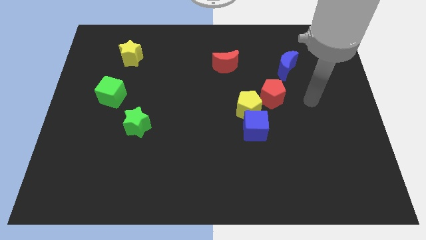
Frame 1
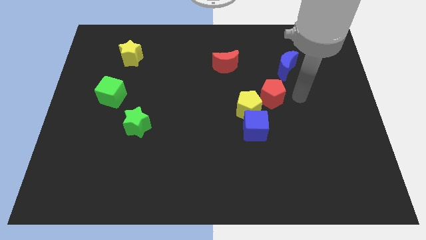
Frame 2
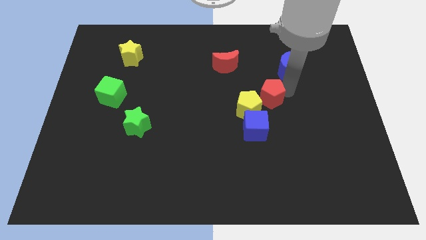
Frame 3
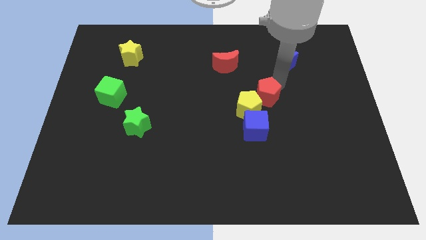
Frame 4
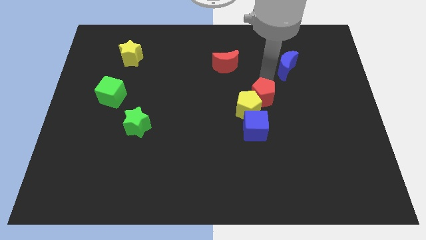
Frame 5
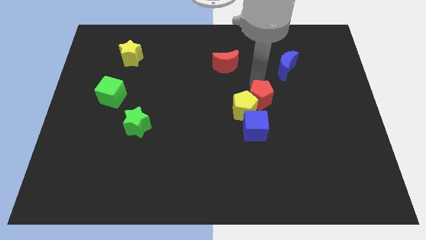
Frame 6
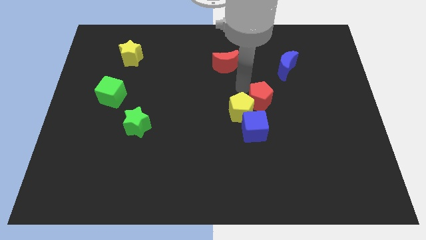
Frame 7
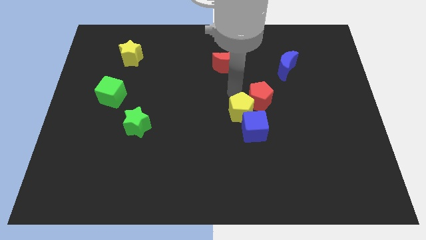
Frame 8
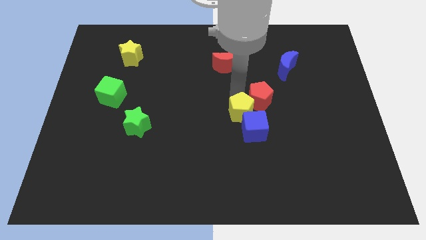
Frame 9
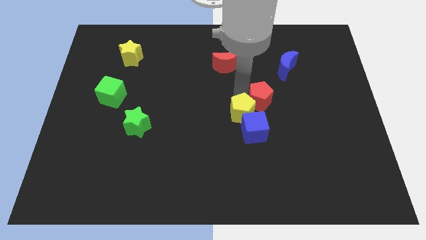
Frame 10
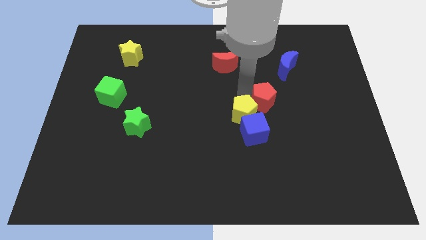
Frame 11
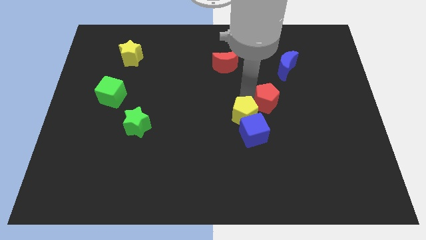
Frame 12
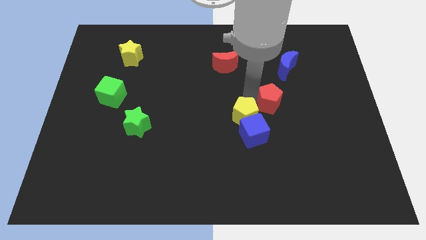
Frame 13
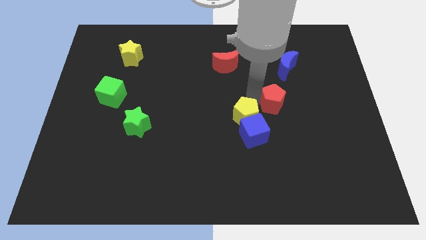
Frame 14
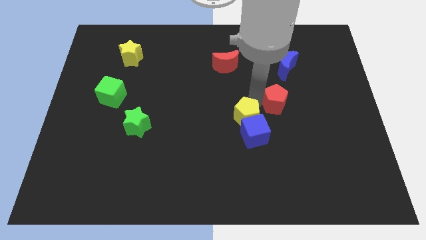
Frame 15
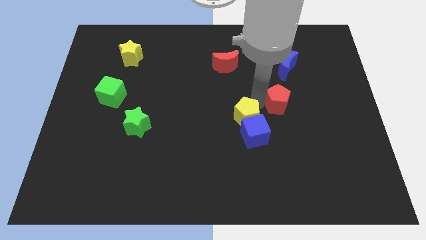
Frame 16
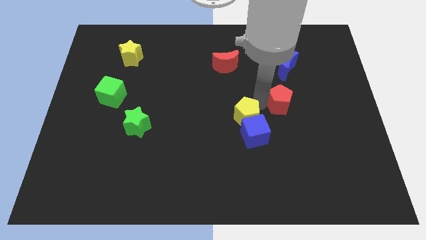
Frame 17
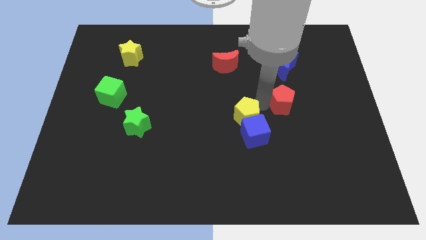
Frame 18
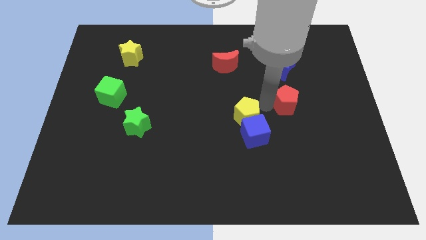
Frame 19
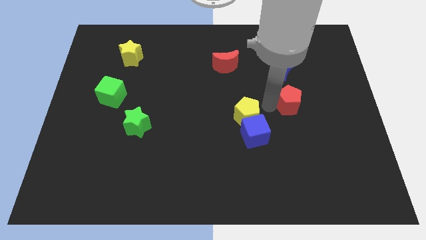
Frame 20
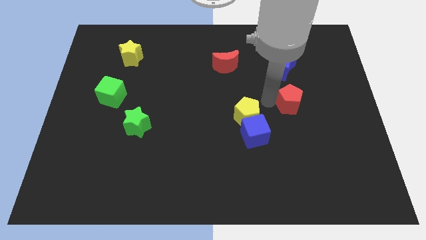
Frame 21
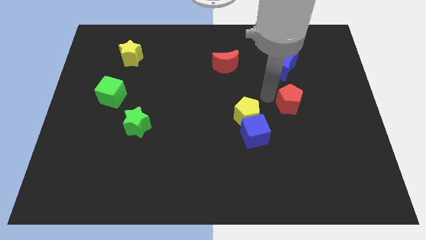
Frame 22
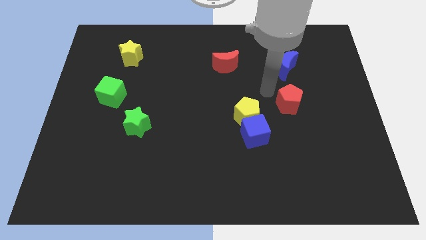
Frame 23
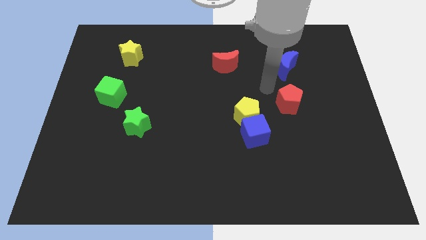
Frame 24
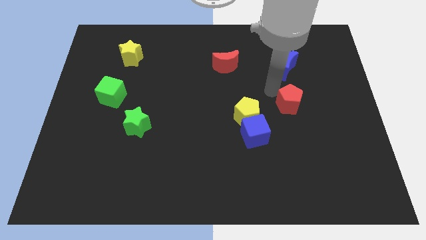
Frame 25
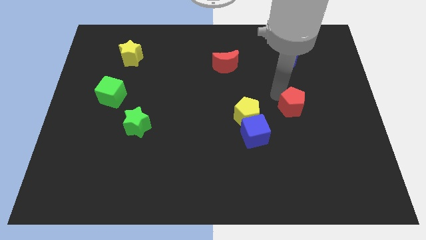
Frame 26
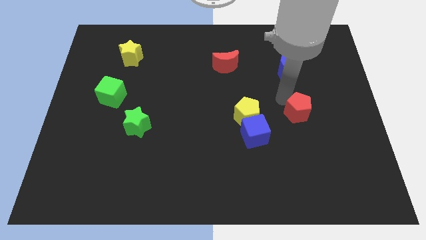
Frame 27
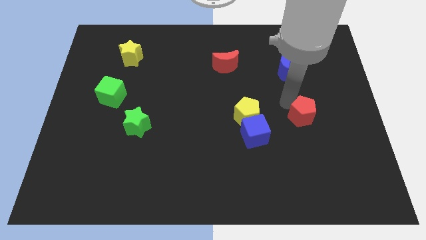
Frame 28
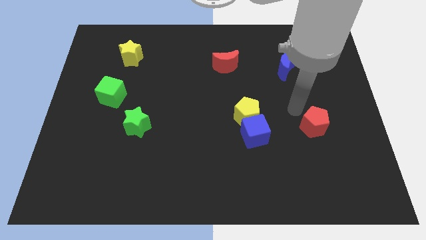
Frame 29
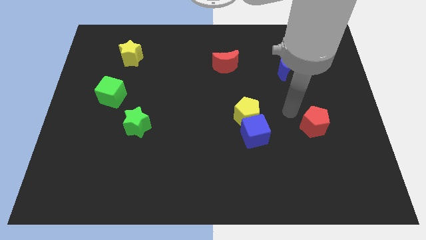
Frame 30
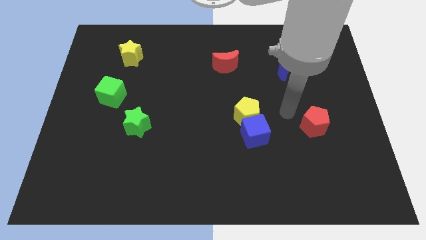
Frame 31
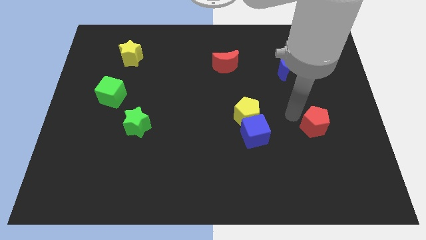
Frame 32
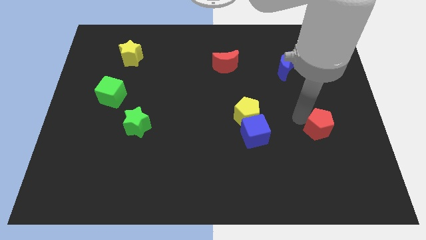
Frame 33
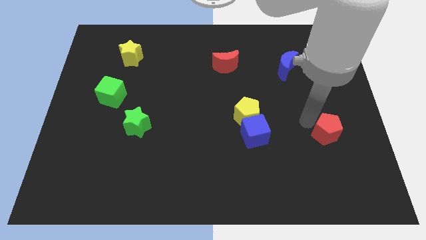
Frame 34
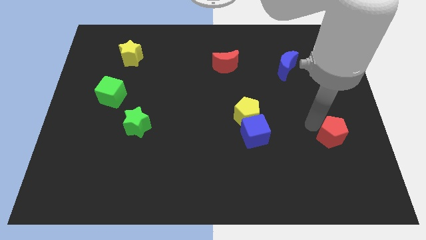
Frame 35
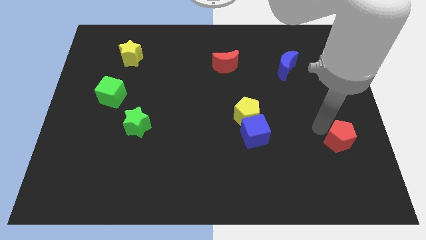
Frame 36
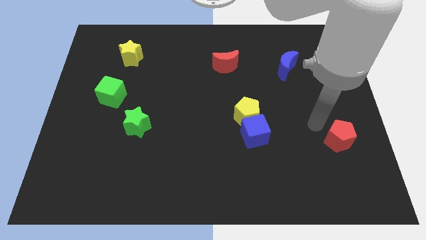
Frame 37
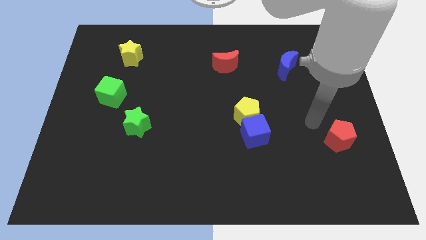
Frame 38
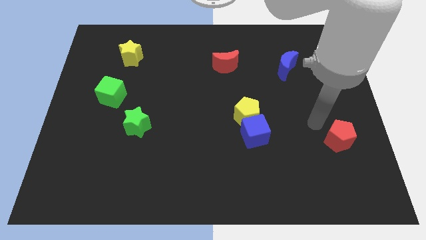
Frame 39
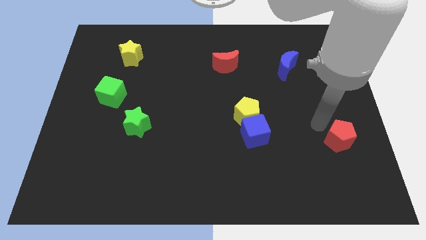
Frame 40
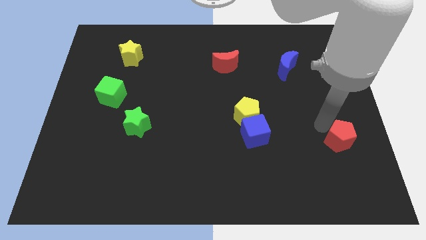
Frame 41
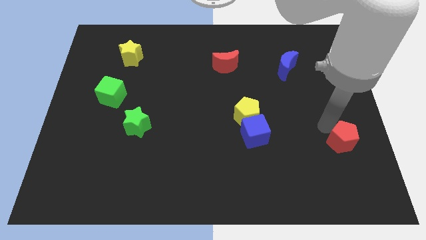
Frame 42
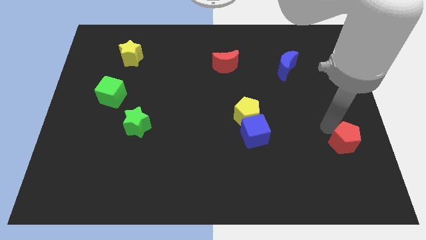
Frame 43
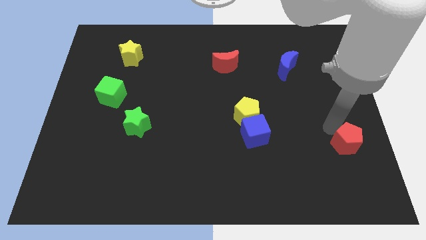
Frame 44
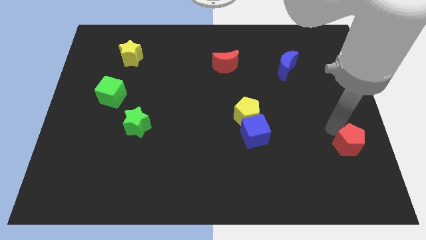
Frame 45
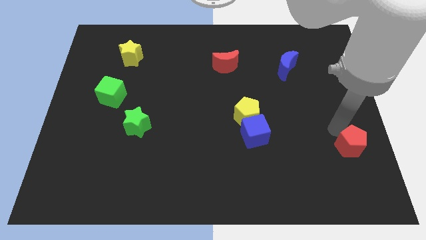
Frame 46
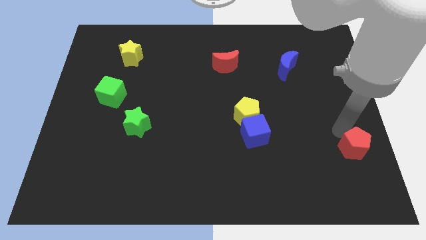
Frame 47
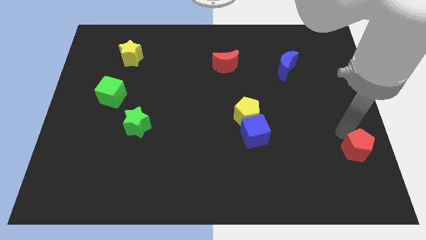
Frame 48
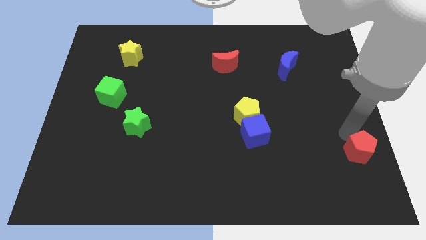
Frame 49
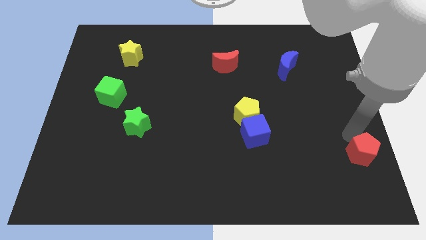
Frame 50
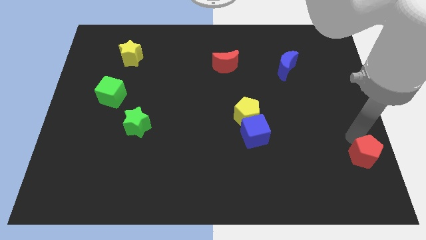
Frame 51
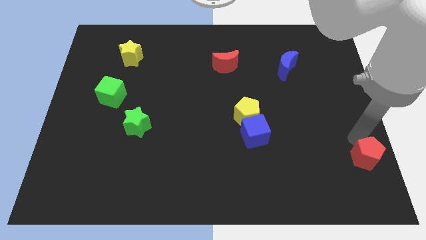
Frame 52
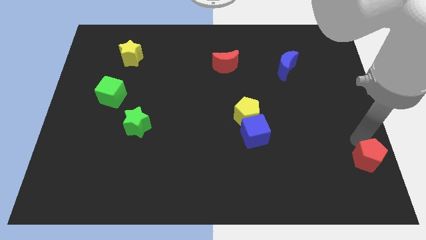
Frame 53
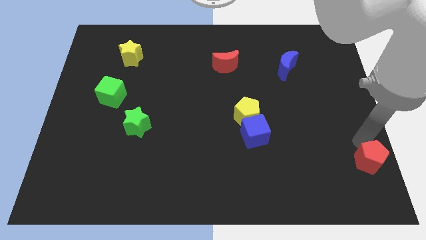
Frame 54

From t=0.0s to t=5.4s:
slide the red pentagon to the bottom right

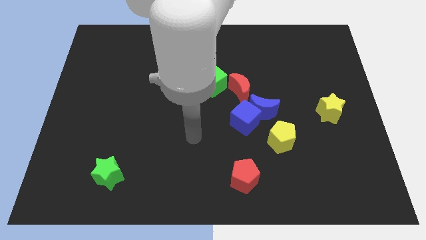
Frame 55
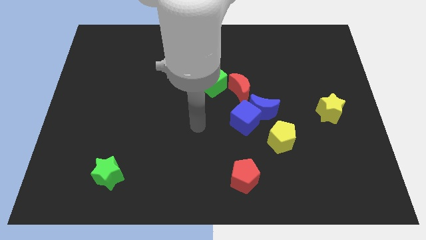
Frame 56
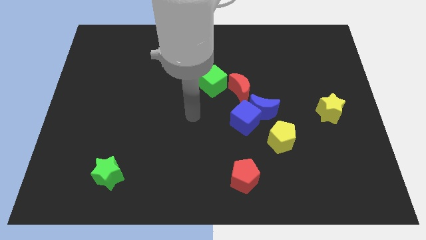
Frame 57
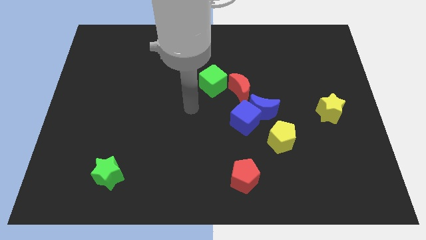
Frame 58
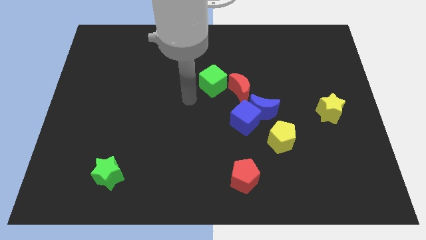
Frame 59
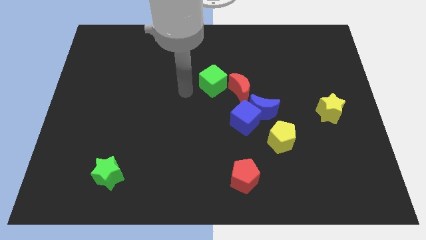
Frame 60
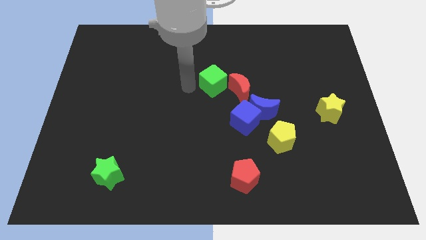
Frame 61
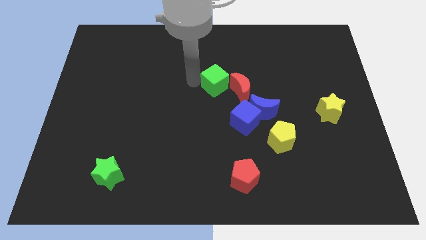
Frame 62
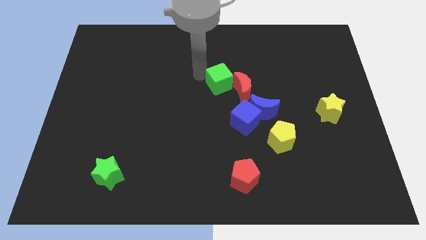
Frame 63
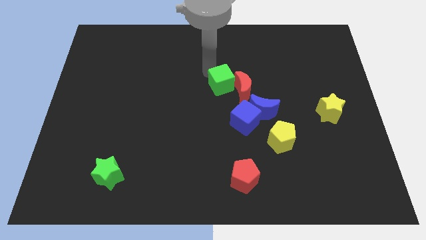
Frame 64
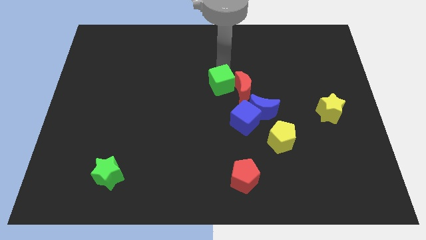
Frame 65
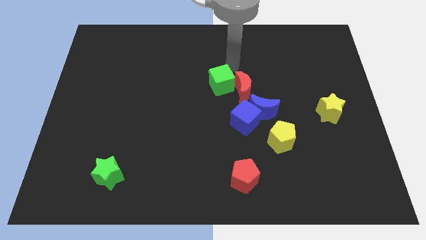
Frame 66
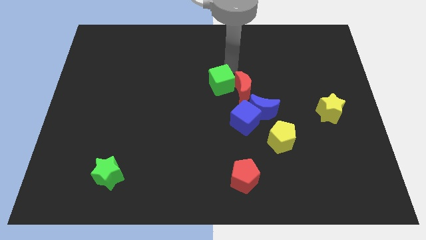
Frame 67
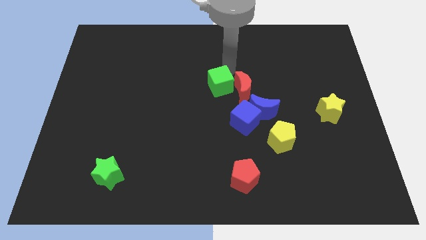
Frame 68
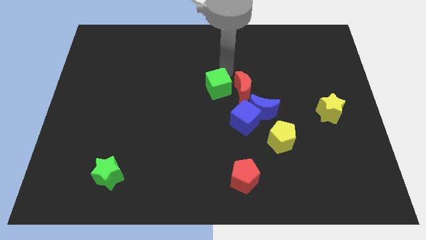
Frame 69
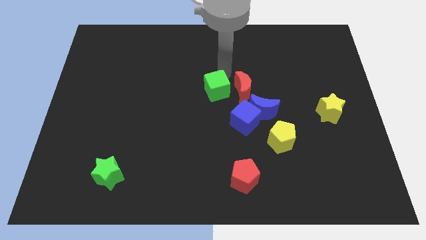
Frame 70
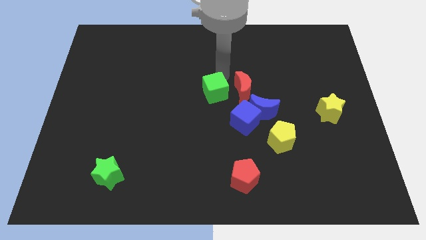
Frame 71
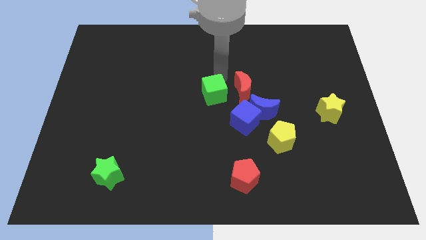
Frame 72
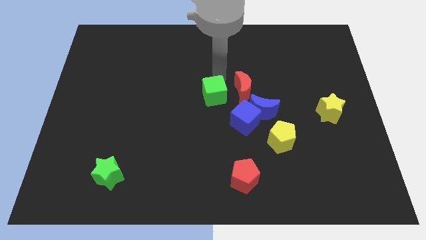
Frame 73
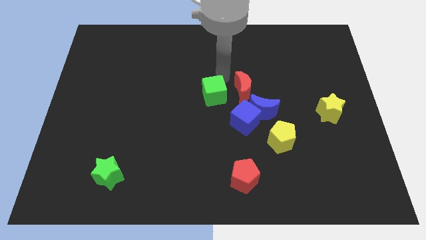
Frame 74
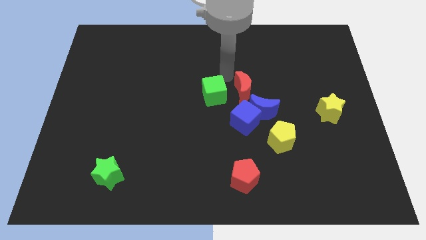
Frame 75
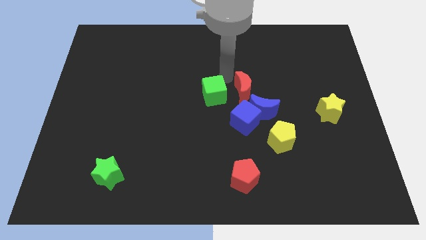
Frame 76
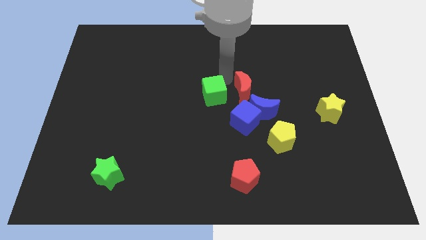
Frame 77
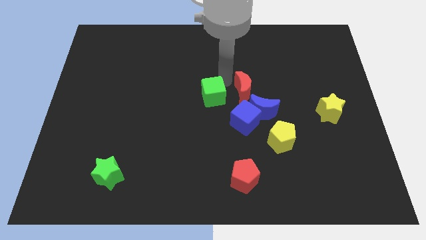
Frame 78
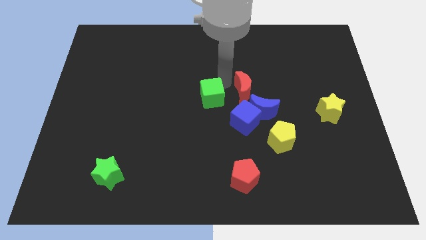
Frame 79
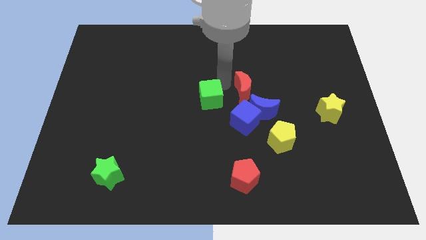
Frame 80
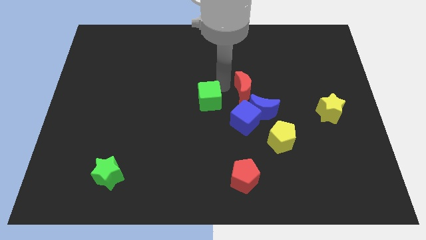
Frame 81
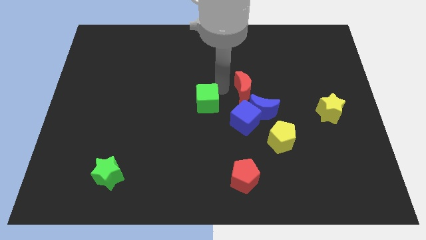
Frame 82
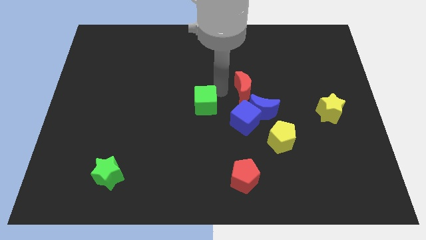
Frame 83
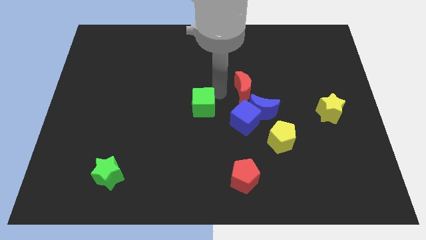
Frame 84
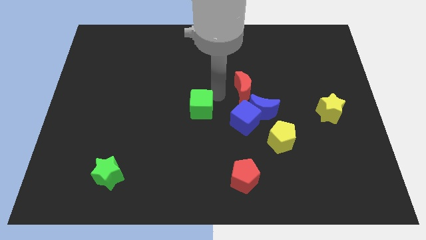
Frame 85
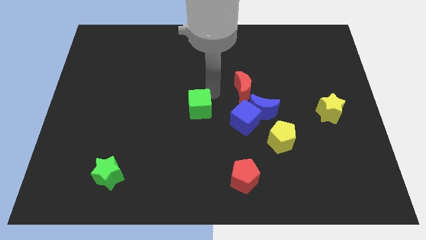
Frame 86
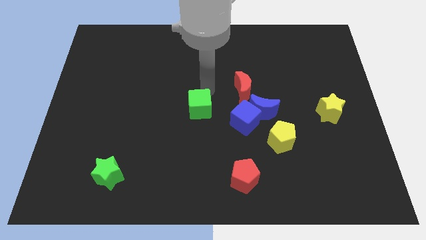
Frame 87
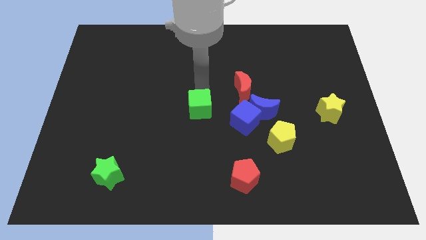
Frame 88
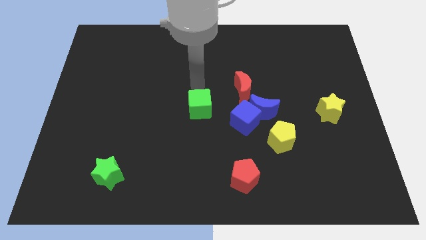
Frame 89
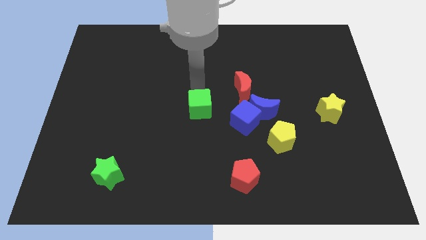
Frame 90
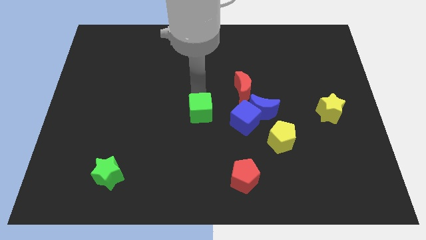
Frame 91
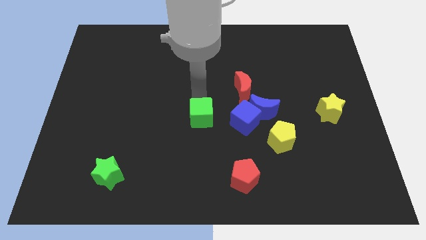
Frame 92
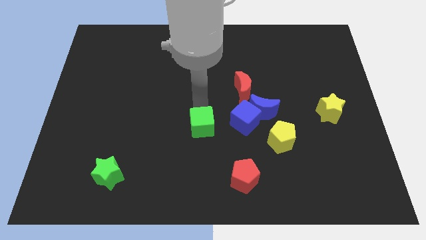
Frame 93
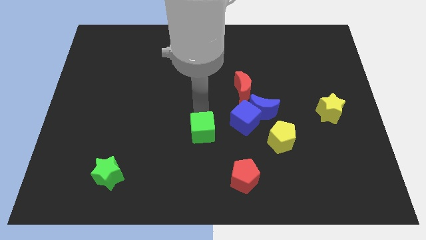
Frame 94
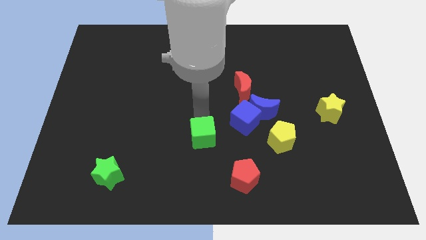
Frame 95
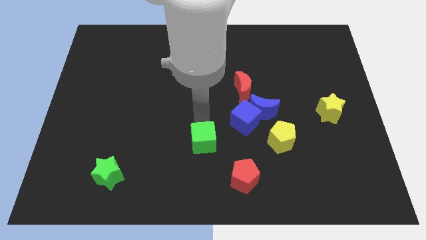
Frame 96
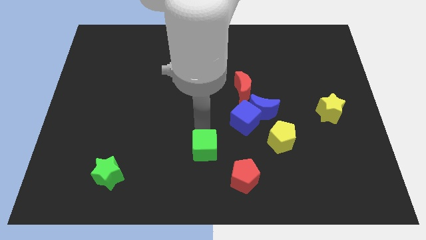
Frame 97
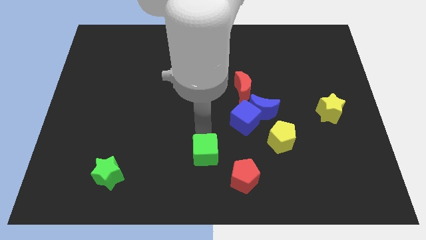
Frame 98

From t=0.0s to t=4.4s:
slide the green cube to the bottom
